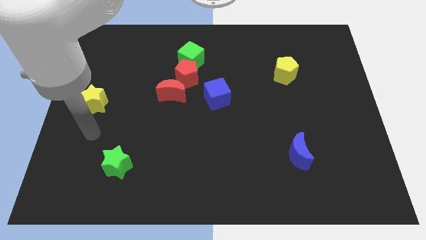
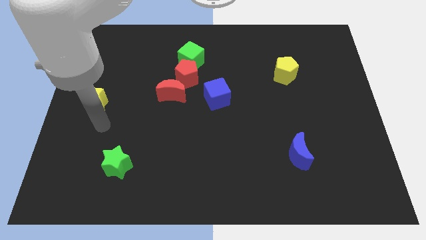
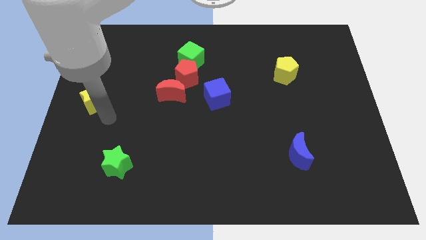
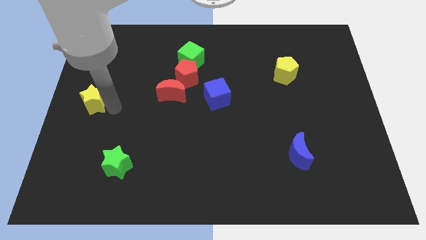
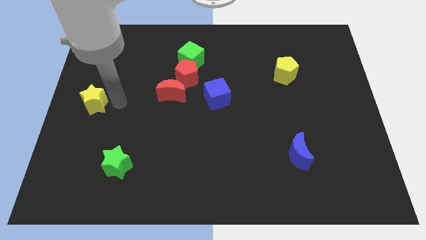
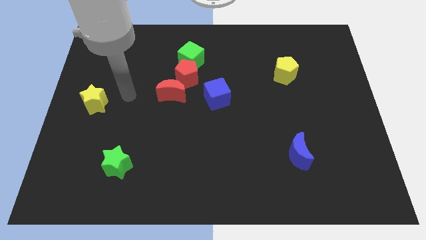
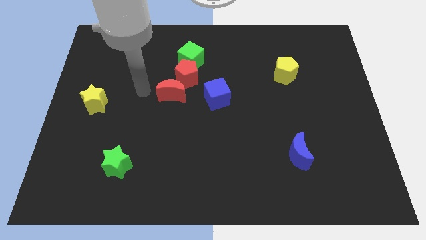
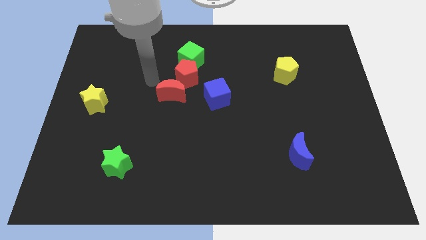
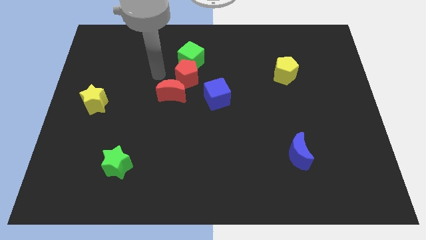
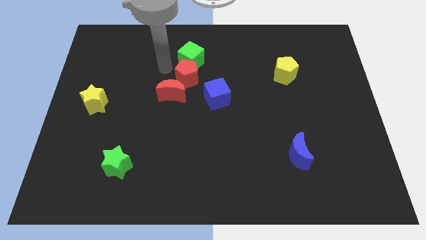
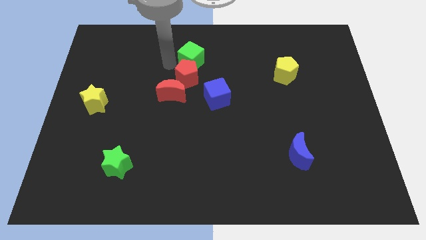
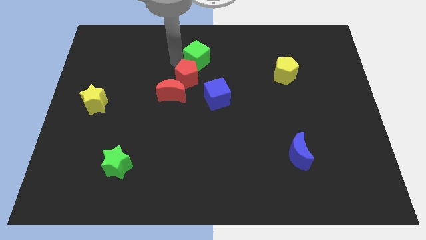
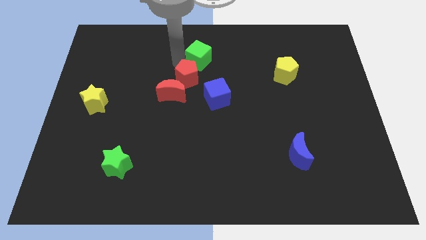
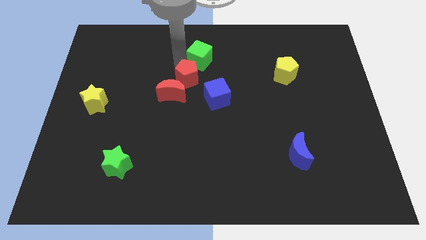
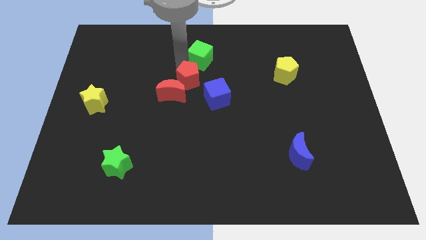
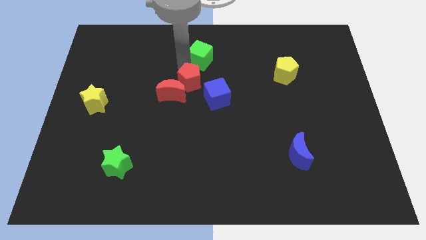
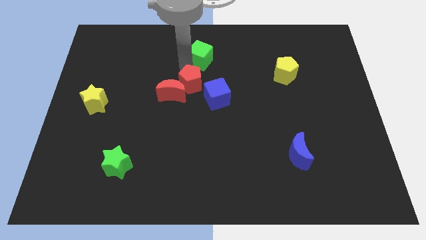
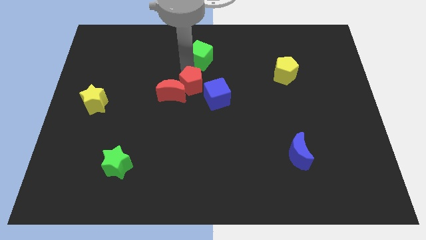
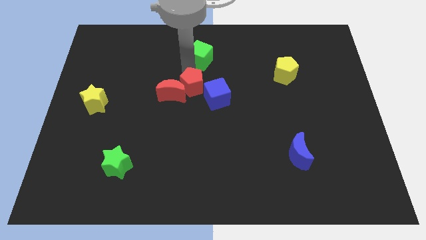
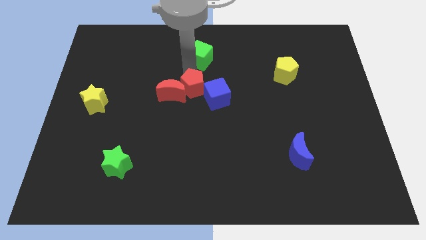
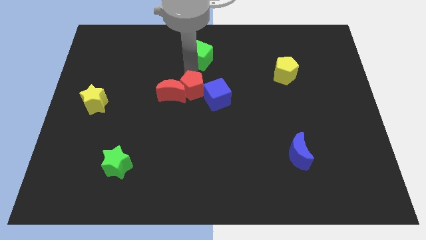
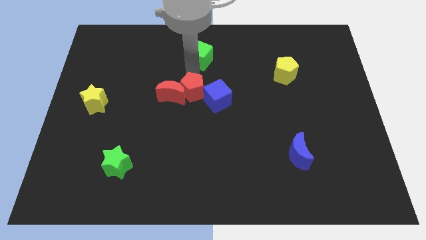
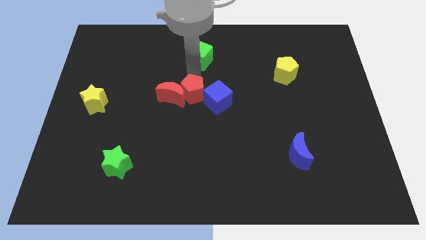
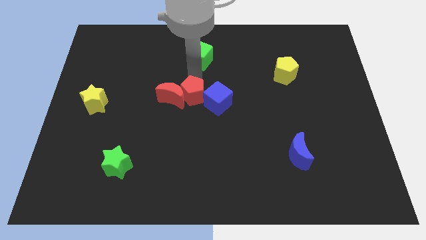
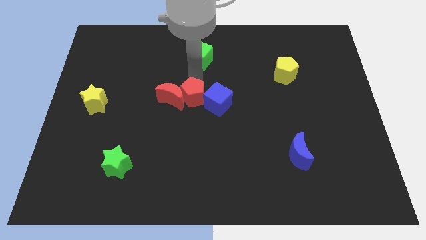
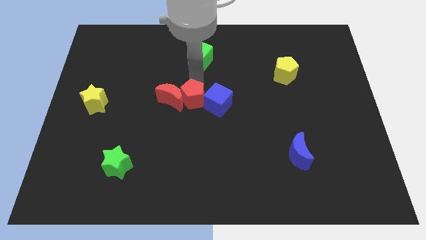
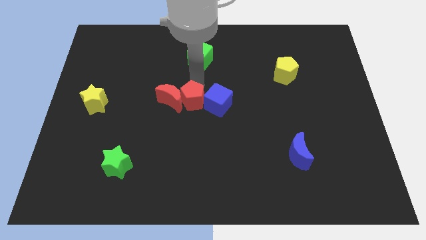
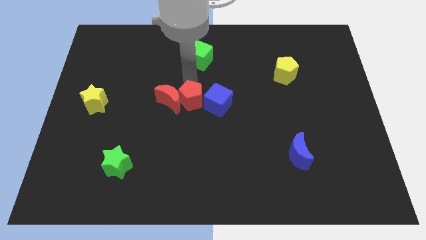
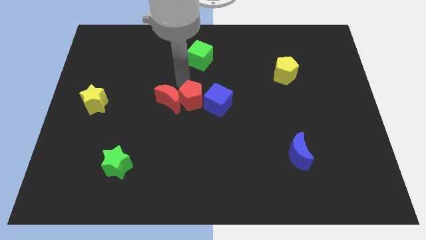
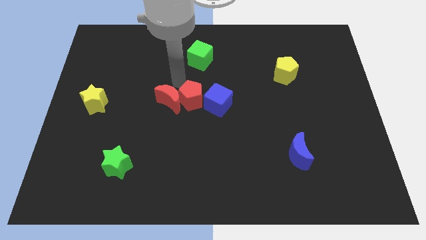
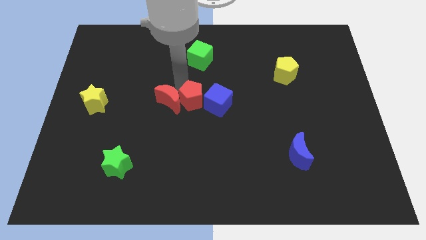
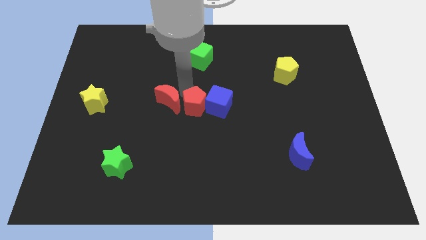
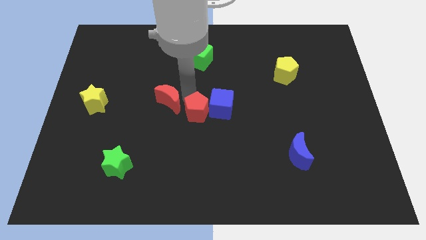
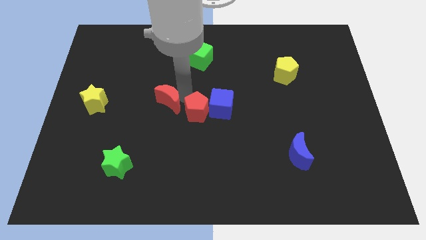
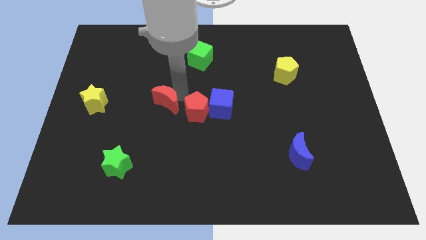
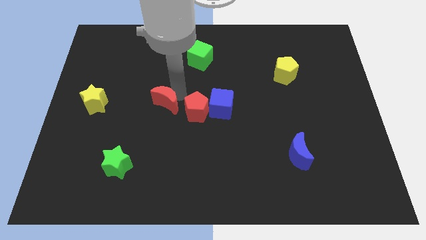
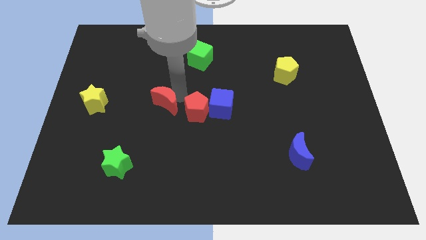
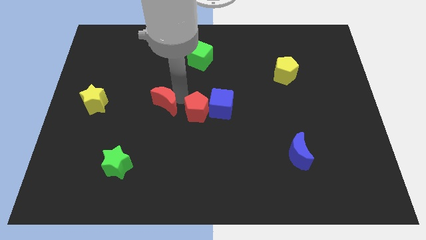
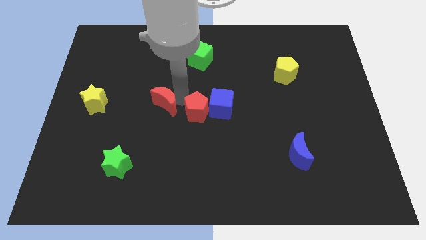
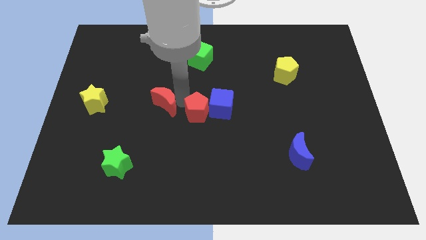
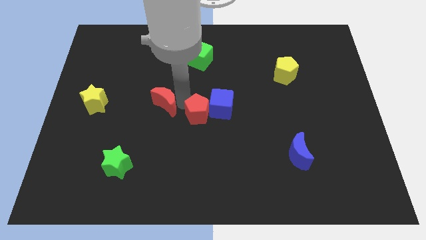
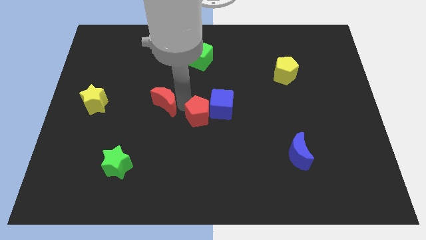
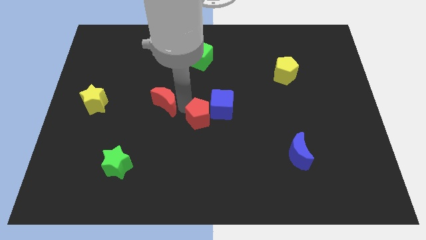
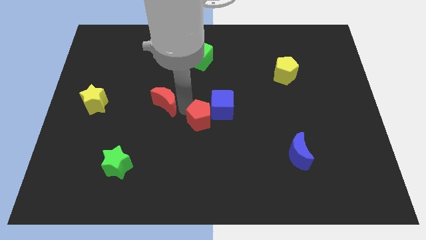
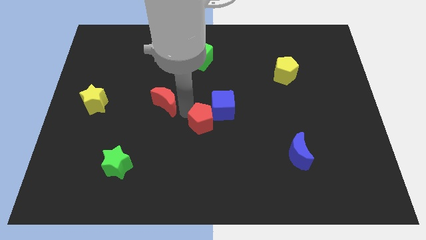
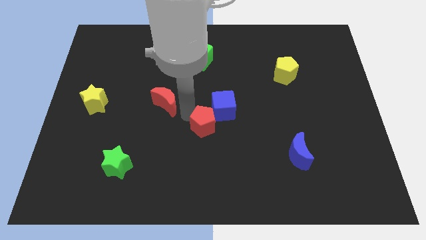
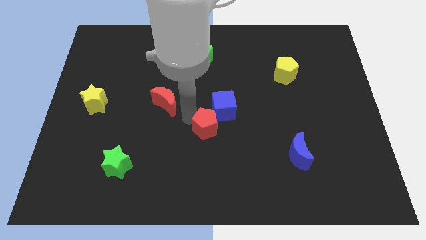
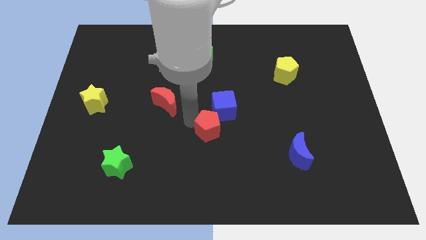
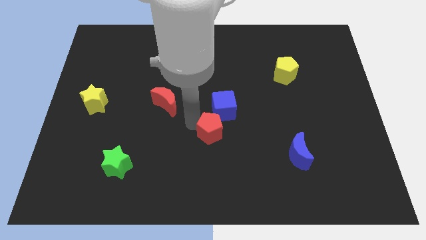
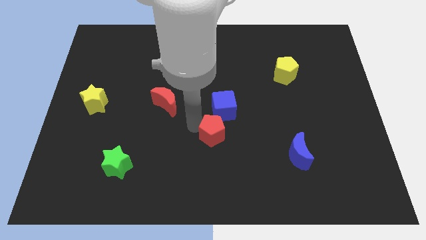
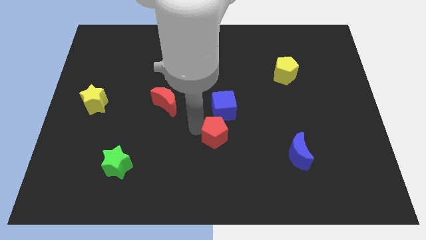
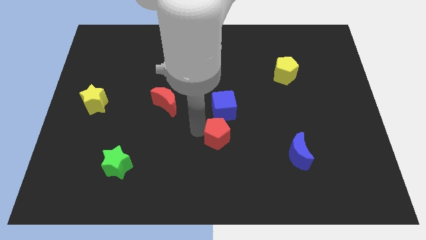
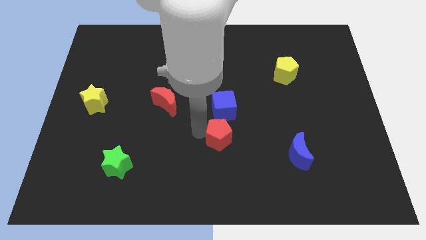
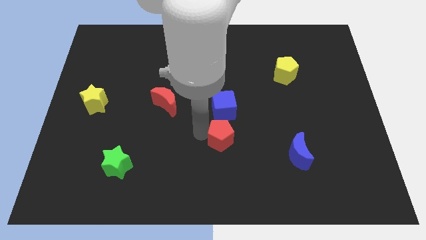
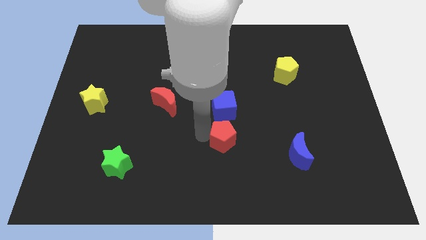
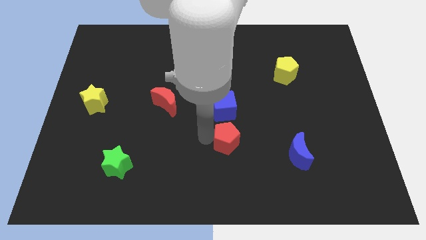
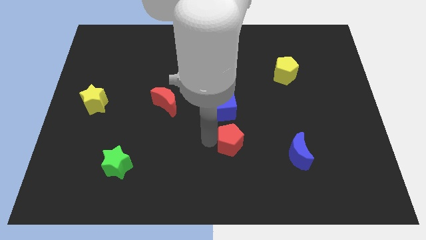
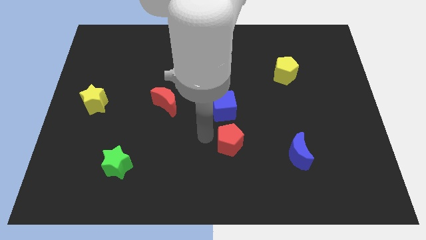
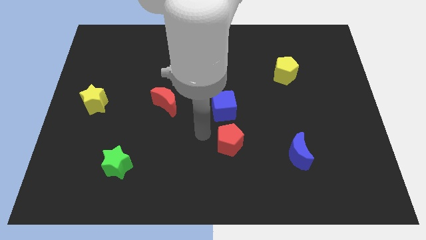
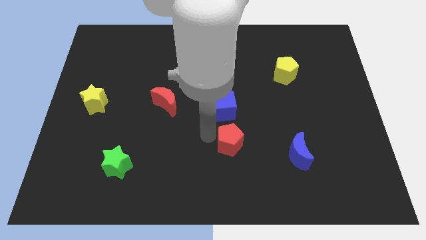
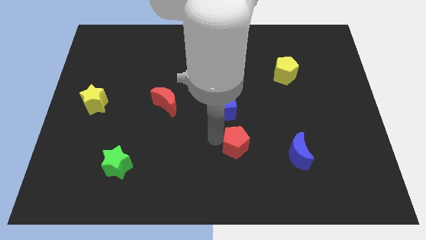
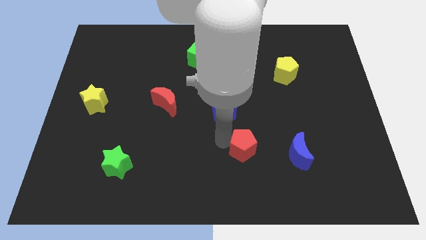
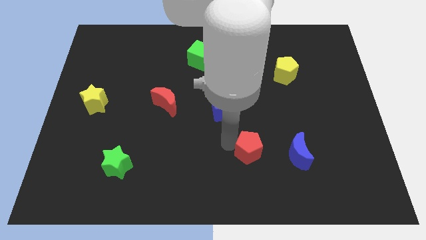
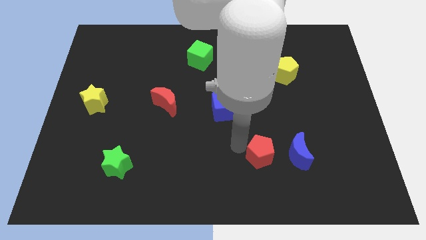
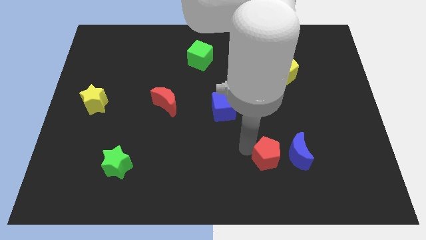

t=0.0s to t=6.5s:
put the red pentagon diagonally down and to the left of the blue moon

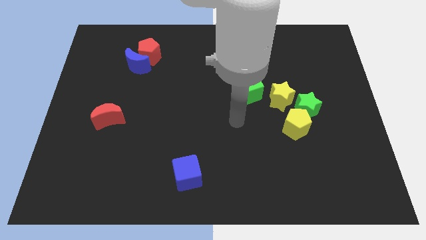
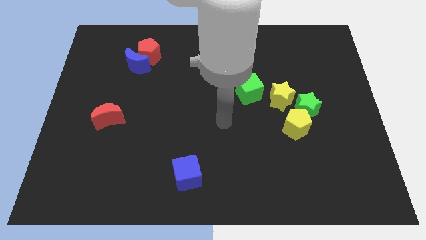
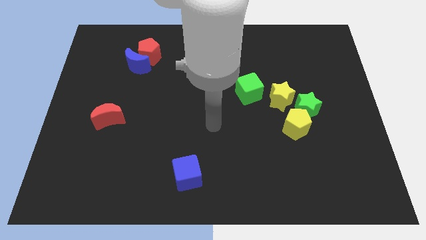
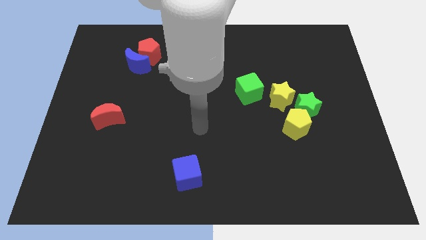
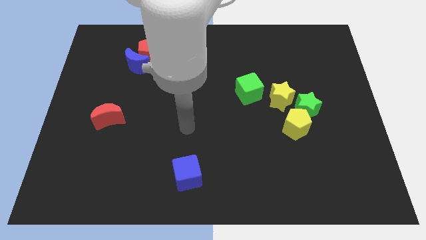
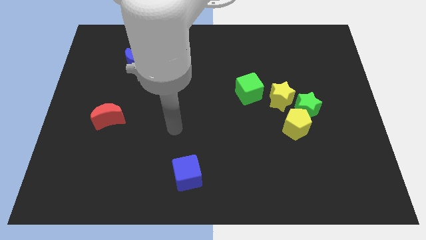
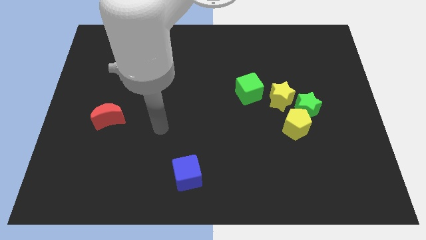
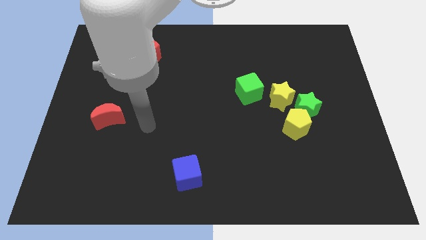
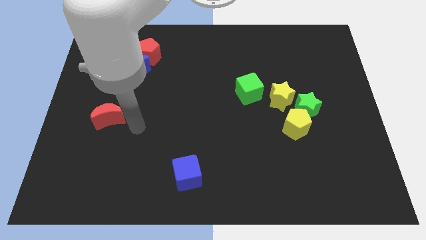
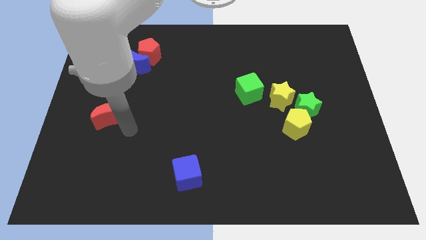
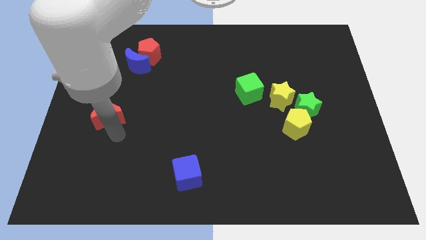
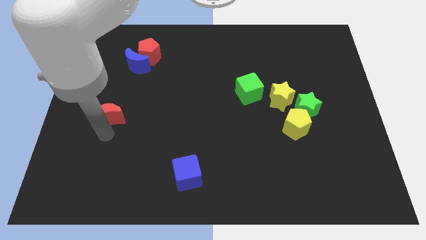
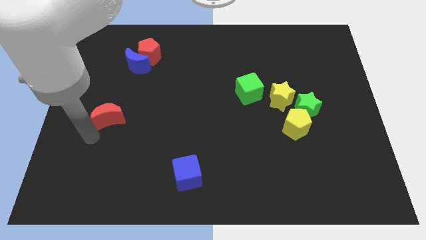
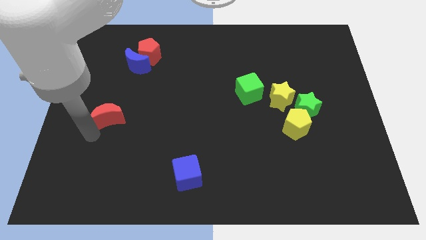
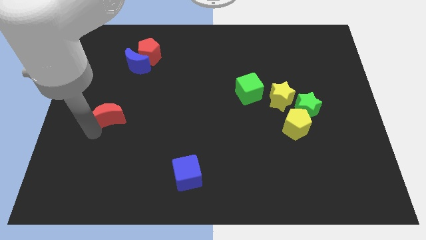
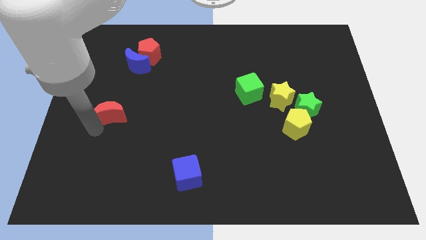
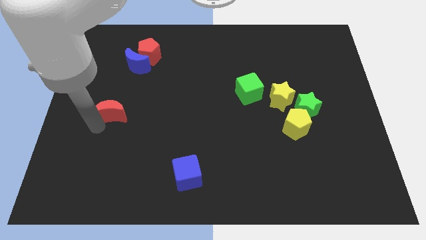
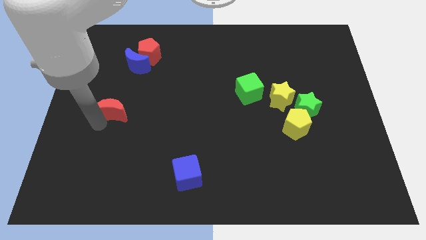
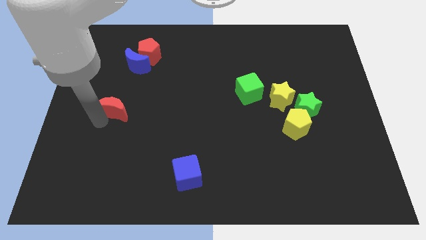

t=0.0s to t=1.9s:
put the red moon to the bottom of the blue moon
